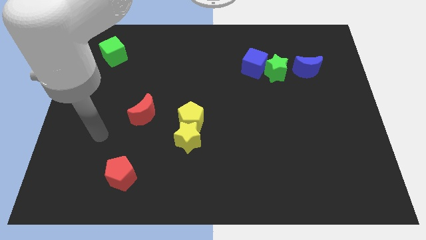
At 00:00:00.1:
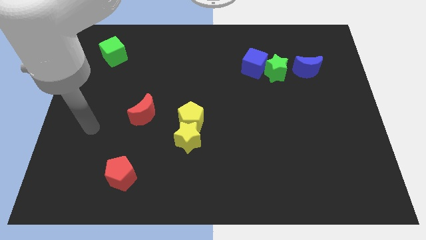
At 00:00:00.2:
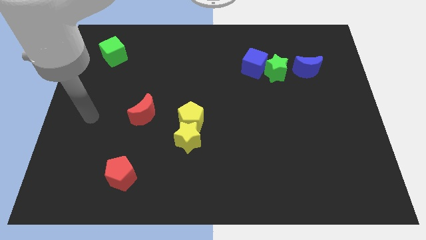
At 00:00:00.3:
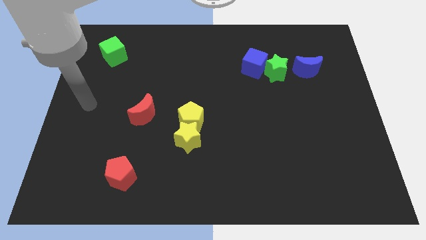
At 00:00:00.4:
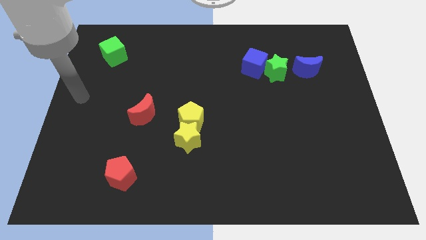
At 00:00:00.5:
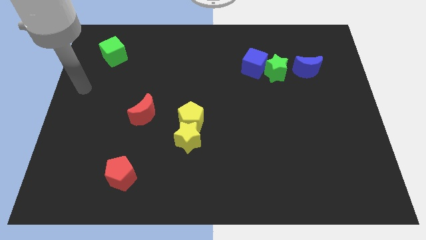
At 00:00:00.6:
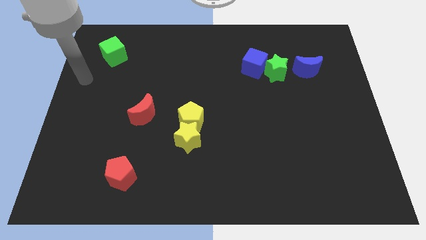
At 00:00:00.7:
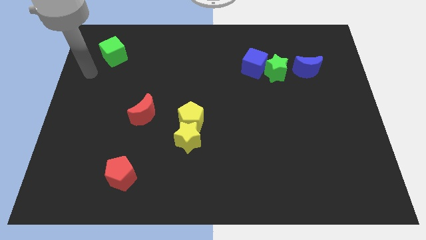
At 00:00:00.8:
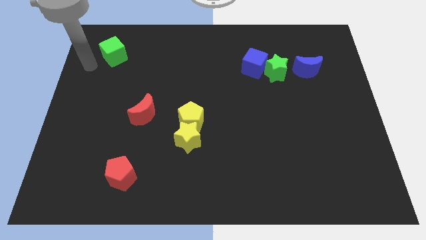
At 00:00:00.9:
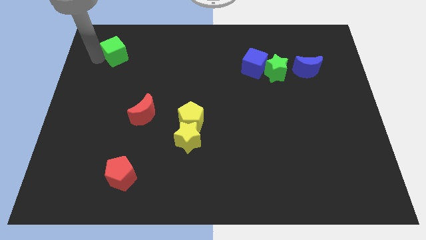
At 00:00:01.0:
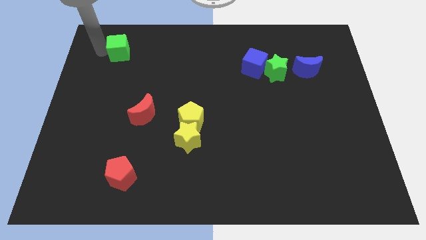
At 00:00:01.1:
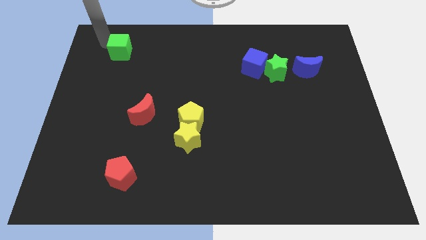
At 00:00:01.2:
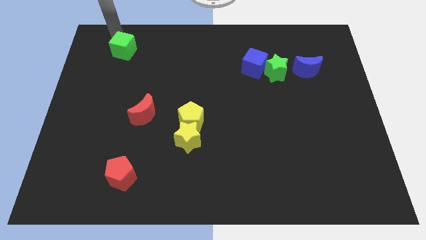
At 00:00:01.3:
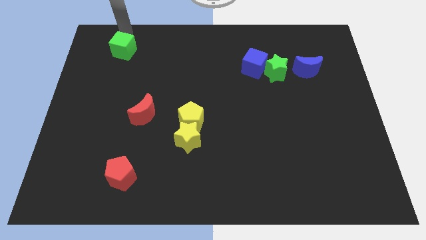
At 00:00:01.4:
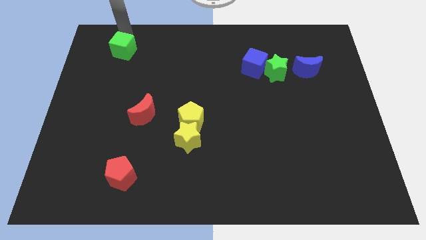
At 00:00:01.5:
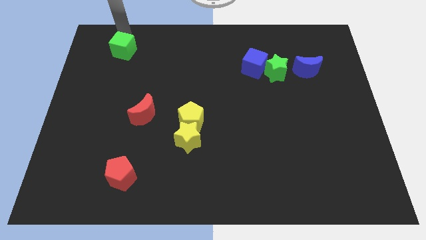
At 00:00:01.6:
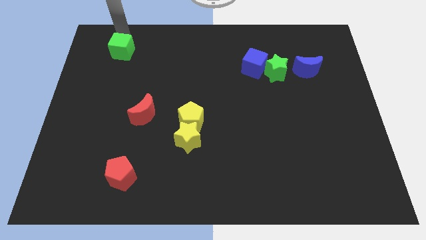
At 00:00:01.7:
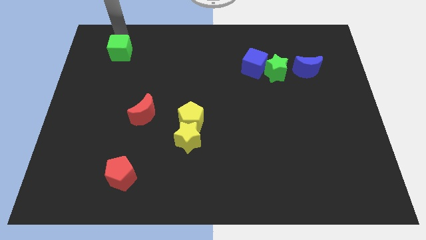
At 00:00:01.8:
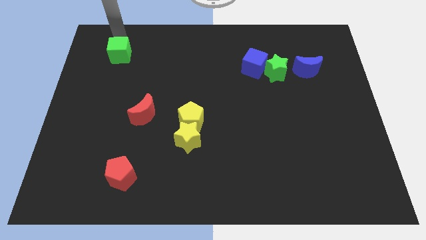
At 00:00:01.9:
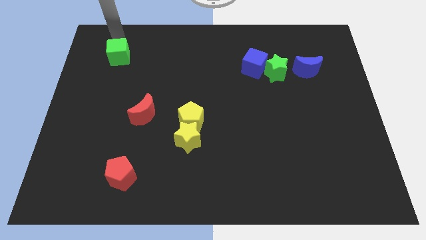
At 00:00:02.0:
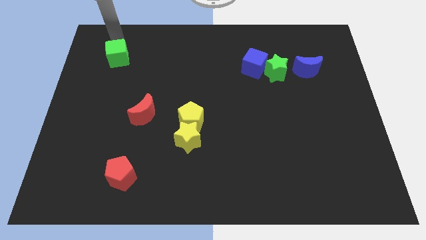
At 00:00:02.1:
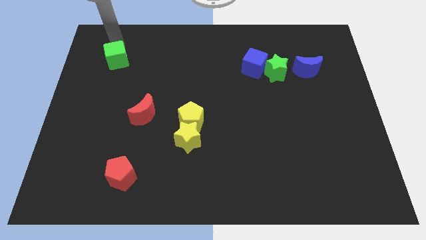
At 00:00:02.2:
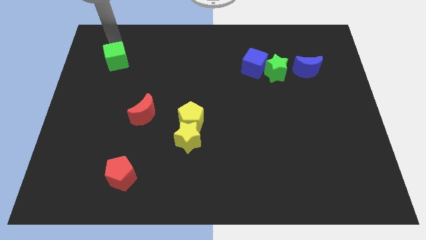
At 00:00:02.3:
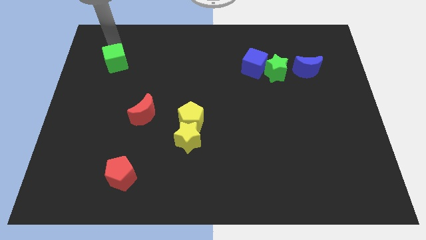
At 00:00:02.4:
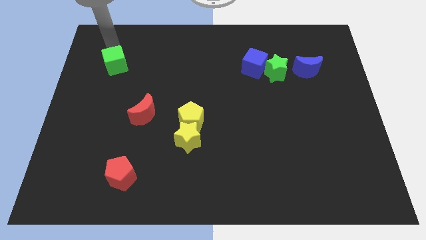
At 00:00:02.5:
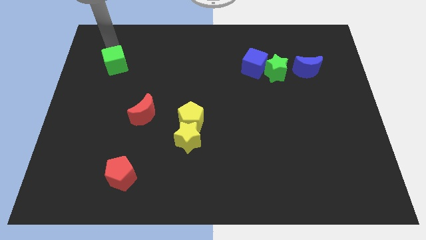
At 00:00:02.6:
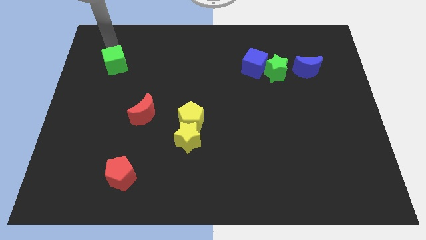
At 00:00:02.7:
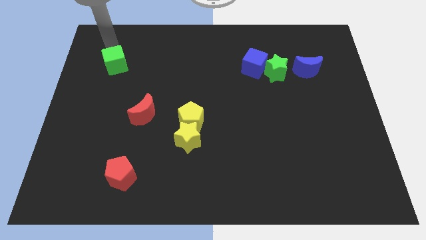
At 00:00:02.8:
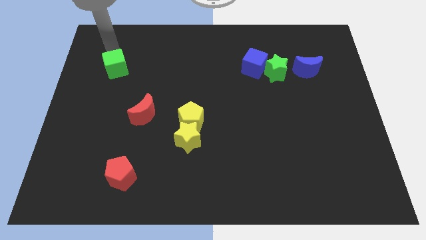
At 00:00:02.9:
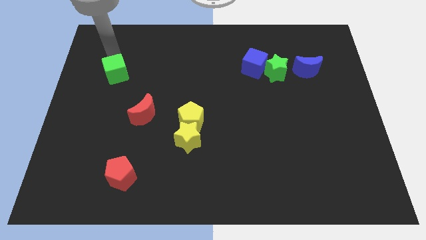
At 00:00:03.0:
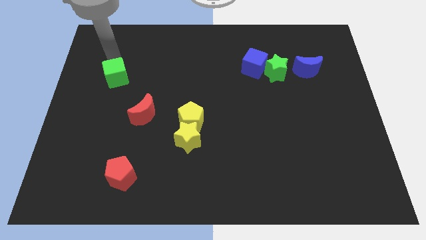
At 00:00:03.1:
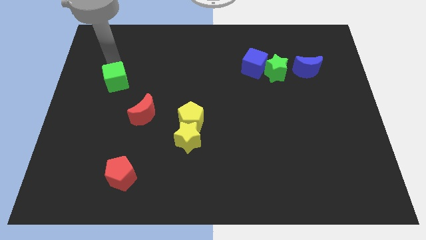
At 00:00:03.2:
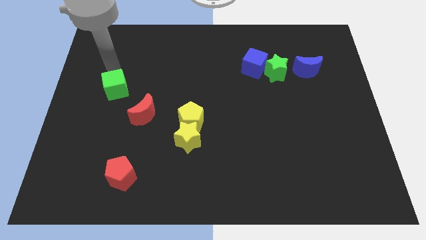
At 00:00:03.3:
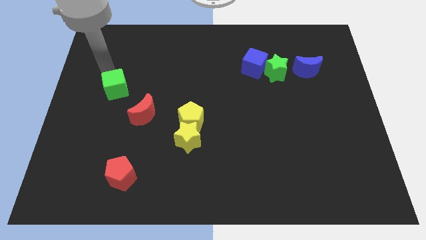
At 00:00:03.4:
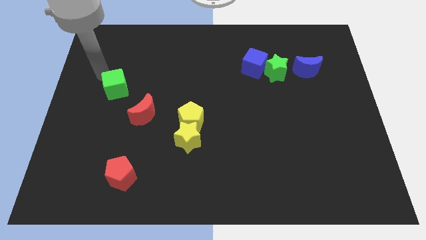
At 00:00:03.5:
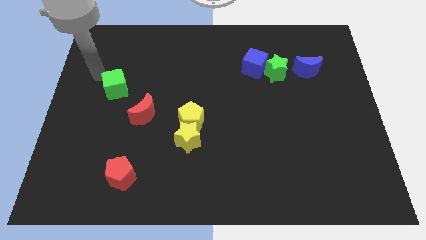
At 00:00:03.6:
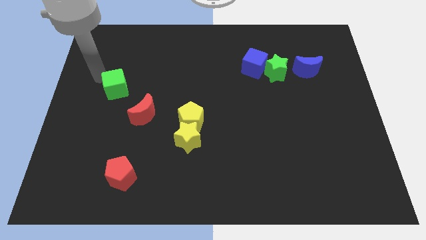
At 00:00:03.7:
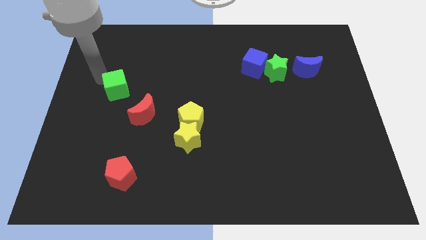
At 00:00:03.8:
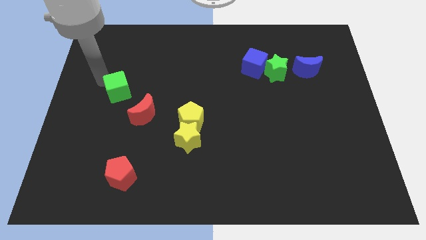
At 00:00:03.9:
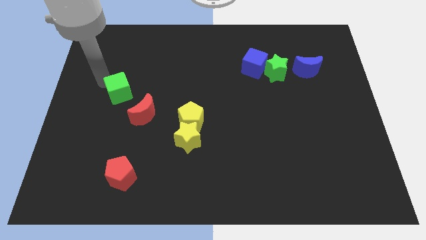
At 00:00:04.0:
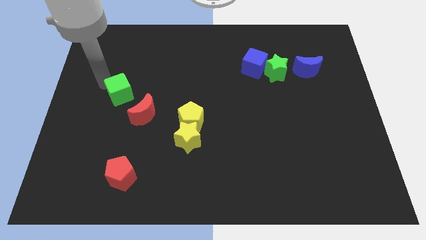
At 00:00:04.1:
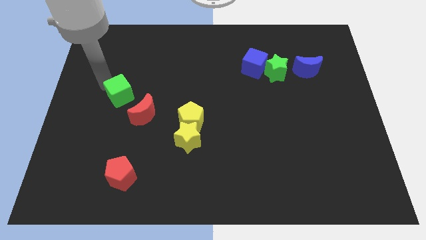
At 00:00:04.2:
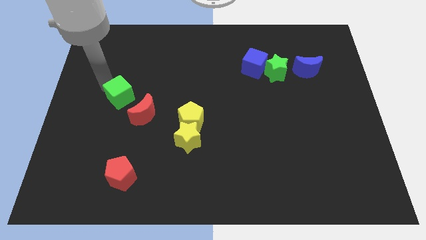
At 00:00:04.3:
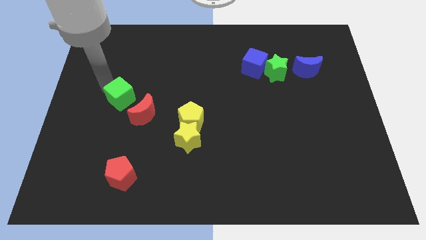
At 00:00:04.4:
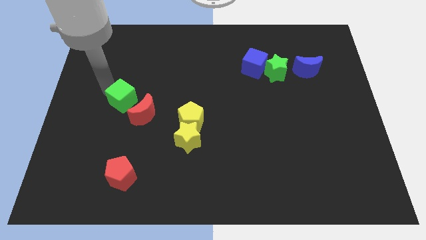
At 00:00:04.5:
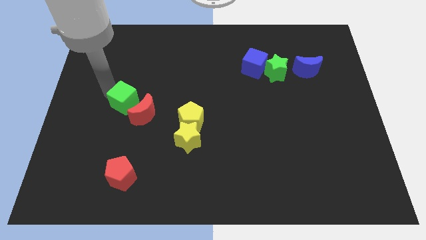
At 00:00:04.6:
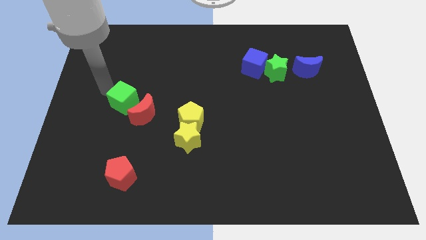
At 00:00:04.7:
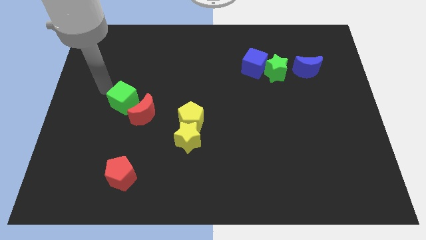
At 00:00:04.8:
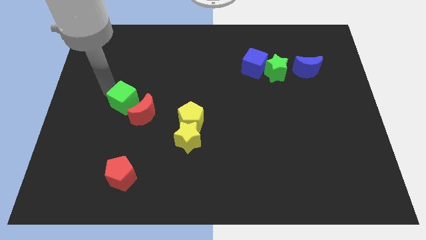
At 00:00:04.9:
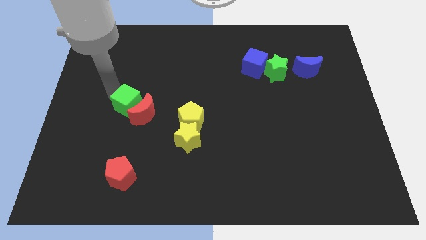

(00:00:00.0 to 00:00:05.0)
put the green cube next to the red moon

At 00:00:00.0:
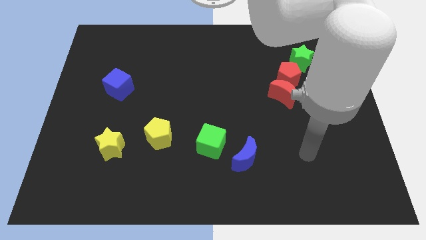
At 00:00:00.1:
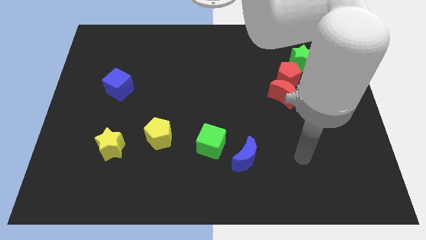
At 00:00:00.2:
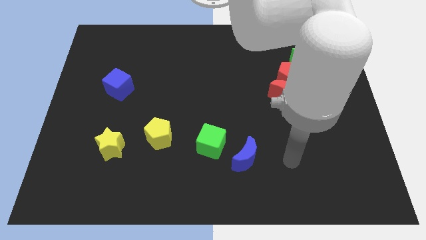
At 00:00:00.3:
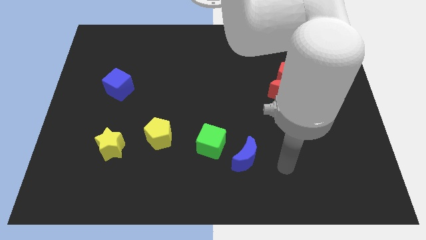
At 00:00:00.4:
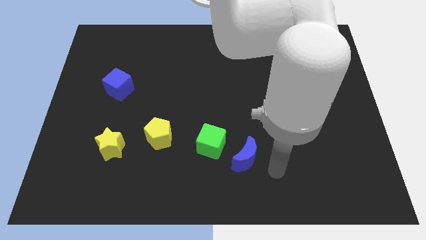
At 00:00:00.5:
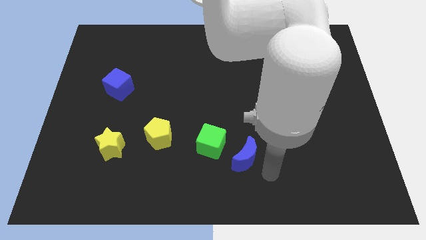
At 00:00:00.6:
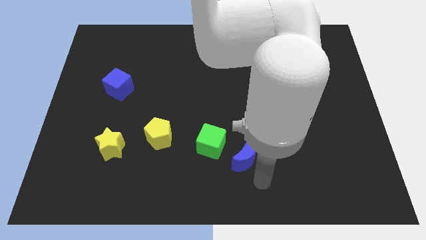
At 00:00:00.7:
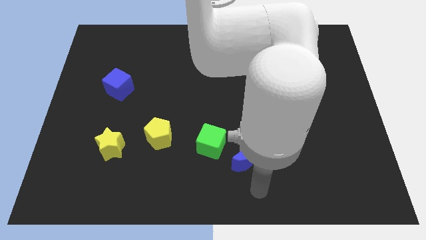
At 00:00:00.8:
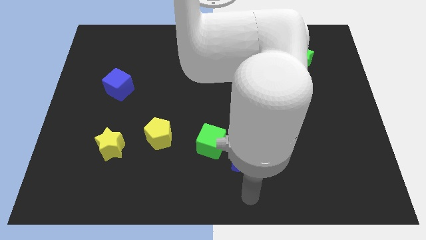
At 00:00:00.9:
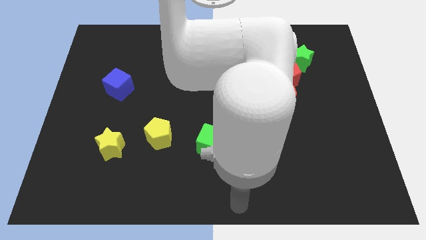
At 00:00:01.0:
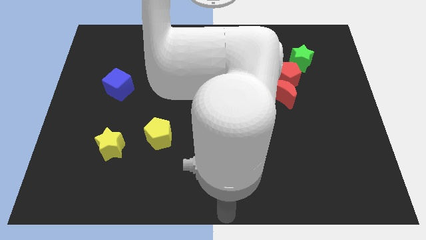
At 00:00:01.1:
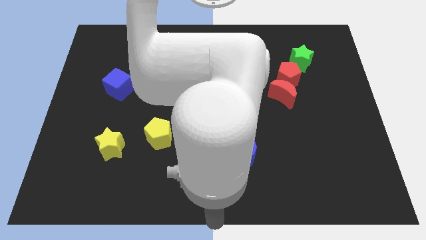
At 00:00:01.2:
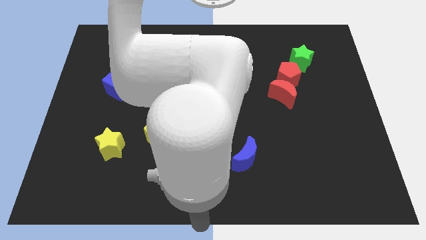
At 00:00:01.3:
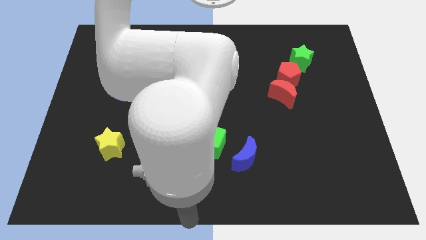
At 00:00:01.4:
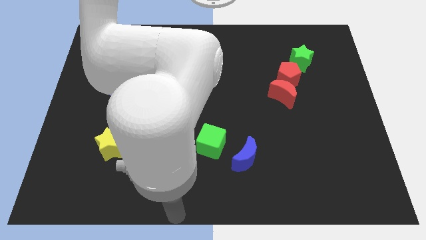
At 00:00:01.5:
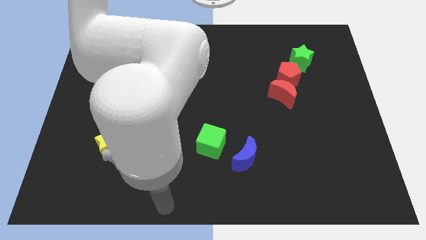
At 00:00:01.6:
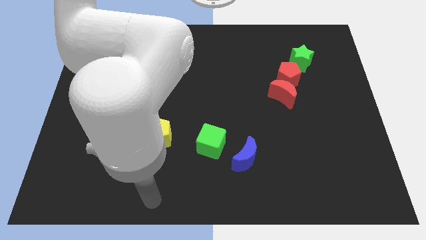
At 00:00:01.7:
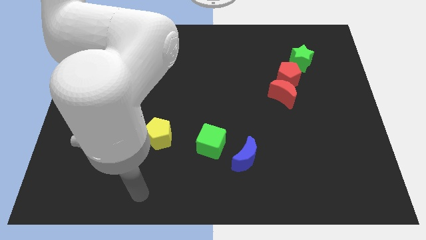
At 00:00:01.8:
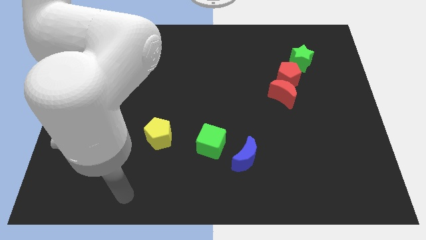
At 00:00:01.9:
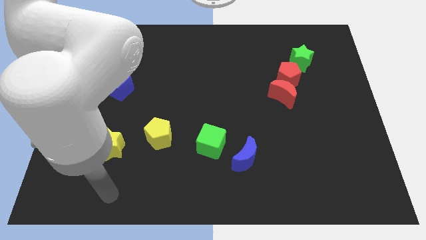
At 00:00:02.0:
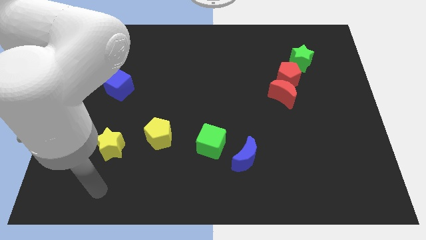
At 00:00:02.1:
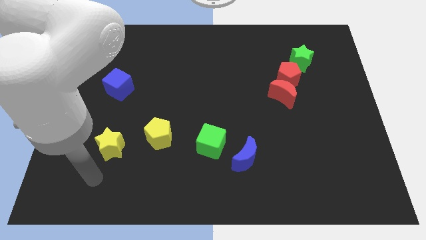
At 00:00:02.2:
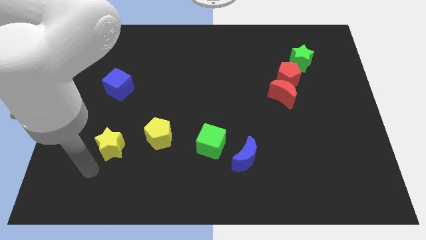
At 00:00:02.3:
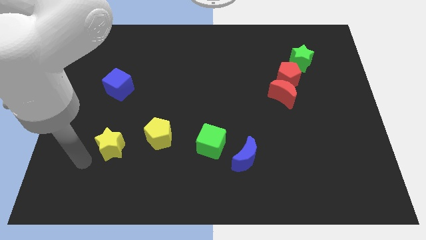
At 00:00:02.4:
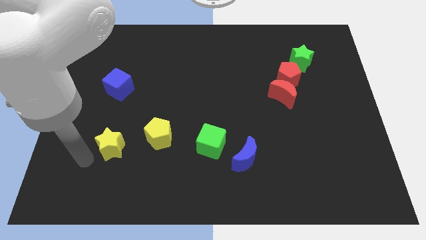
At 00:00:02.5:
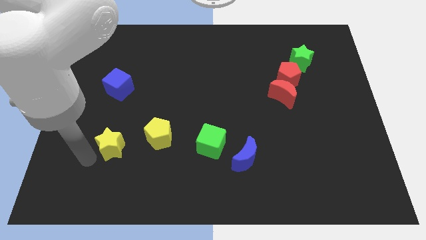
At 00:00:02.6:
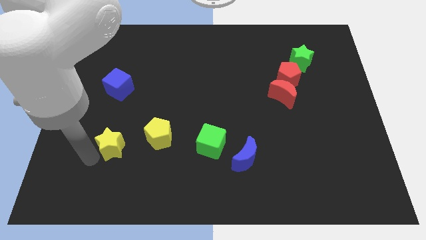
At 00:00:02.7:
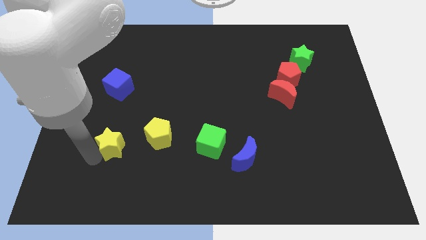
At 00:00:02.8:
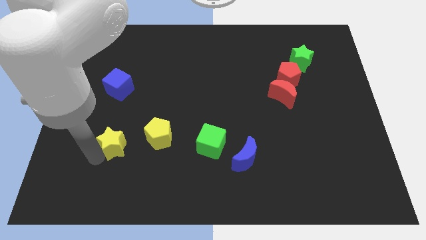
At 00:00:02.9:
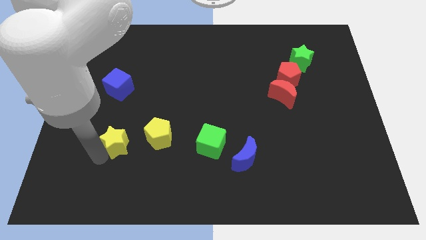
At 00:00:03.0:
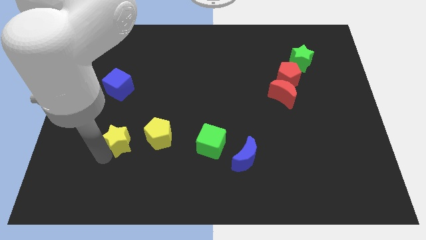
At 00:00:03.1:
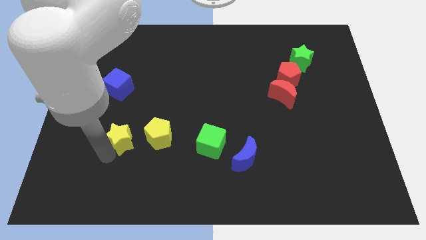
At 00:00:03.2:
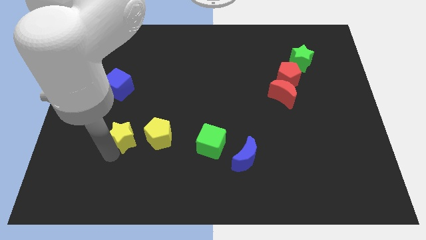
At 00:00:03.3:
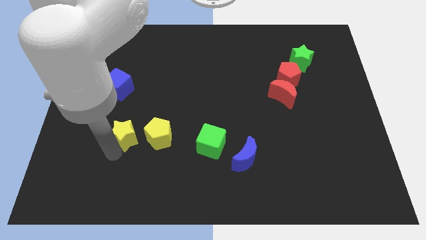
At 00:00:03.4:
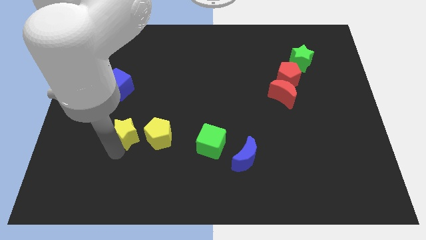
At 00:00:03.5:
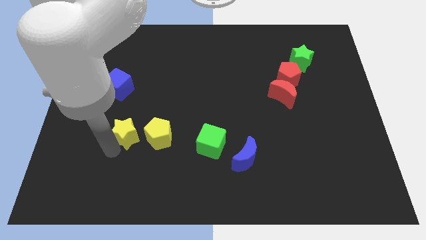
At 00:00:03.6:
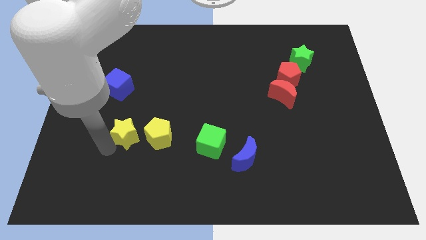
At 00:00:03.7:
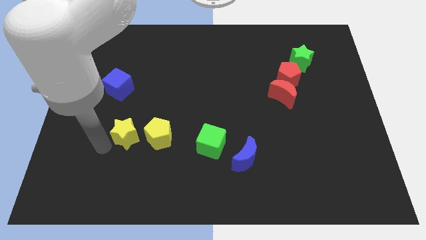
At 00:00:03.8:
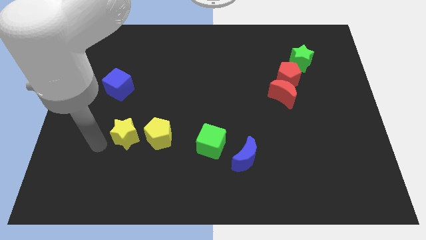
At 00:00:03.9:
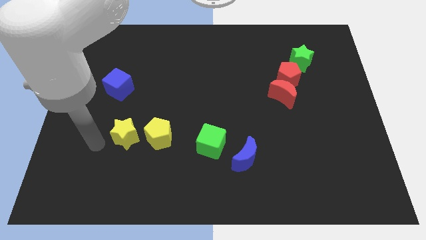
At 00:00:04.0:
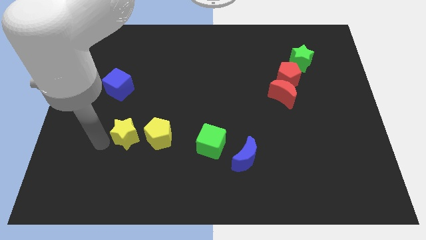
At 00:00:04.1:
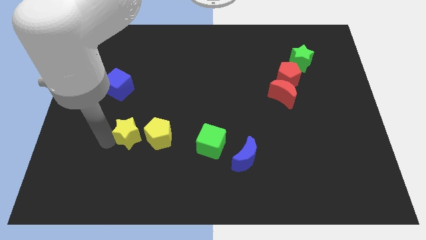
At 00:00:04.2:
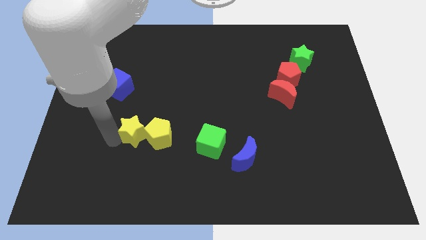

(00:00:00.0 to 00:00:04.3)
push the yellow star next to the yellow pentagon
